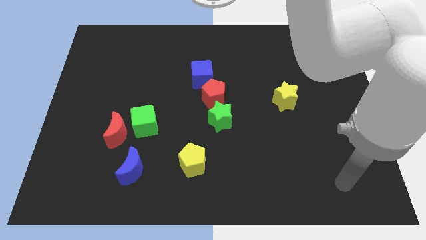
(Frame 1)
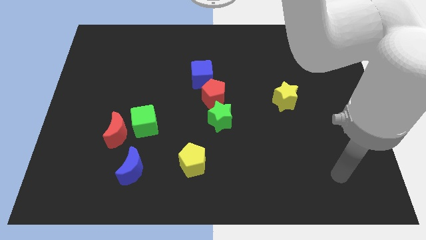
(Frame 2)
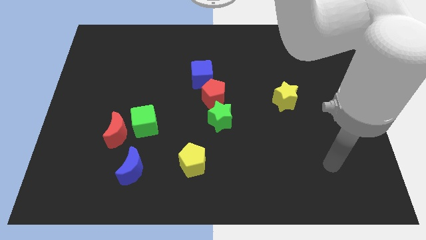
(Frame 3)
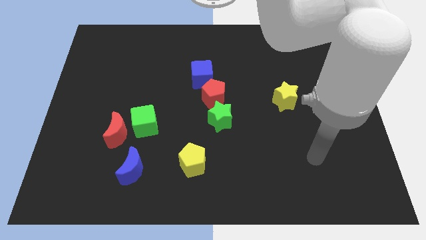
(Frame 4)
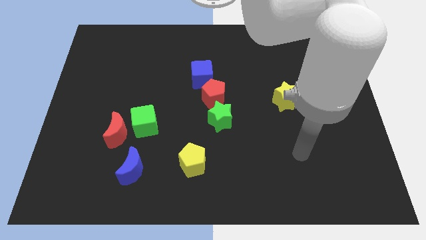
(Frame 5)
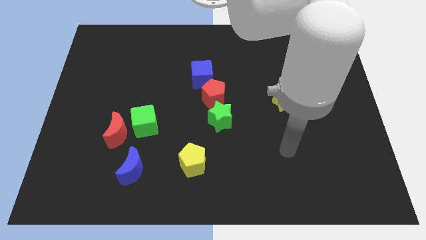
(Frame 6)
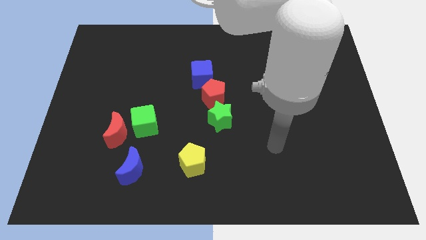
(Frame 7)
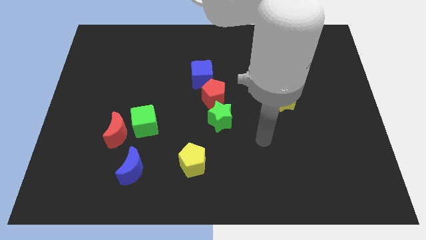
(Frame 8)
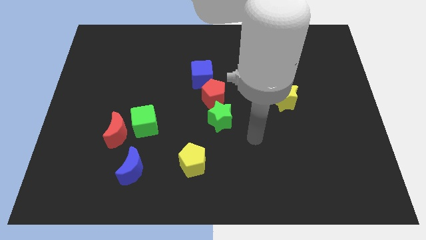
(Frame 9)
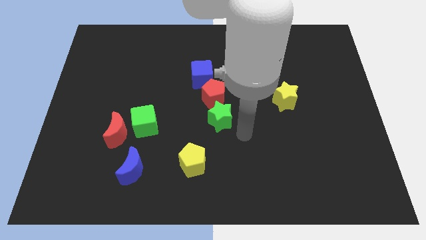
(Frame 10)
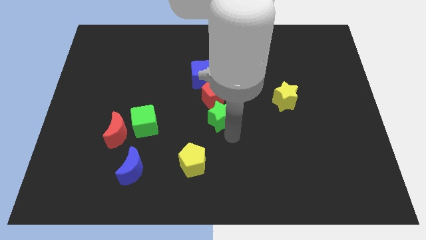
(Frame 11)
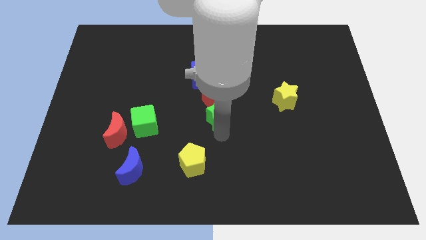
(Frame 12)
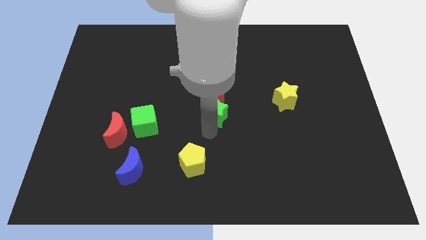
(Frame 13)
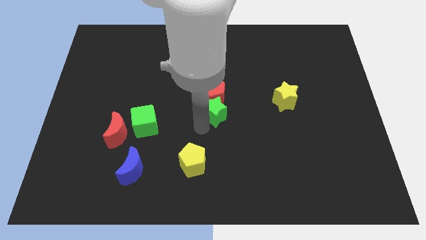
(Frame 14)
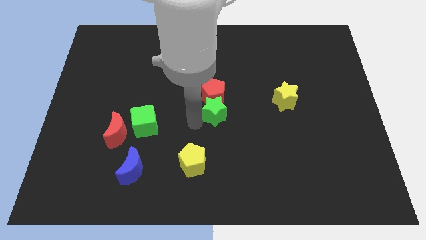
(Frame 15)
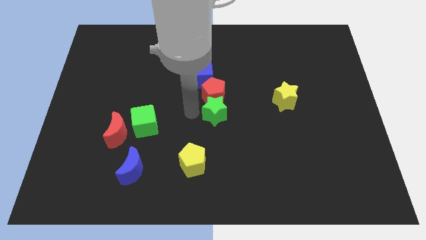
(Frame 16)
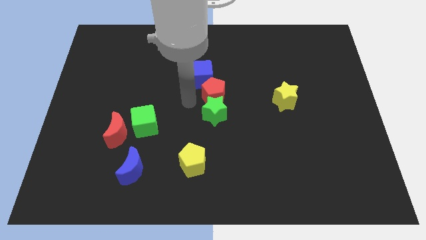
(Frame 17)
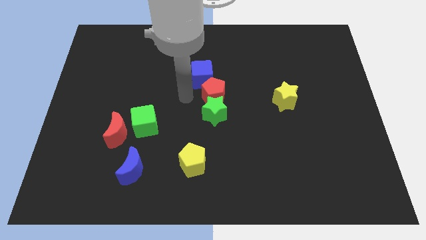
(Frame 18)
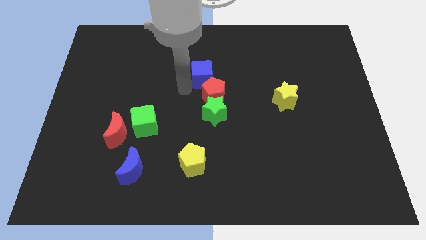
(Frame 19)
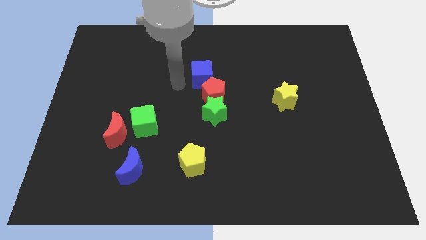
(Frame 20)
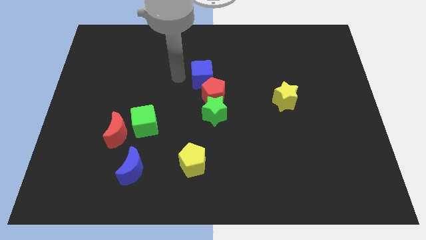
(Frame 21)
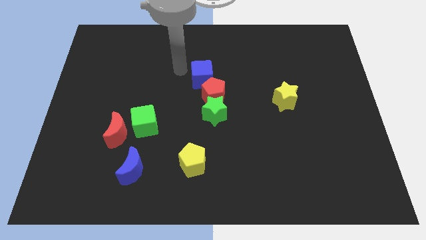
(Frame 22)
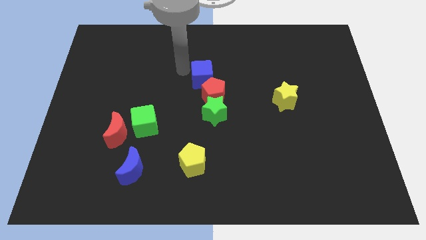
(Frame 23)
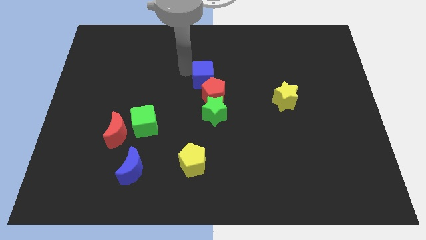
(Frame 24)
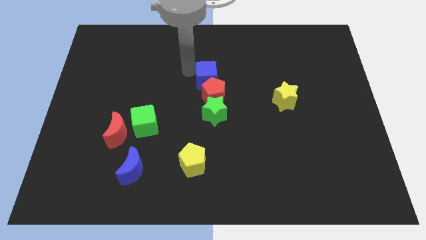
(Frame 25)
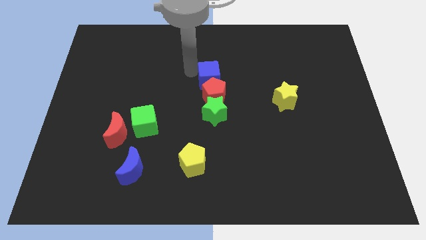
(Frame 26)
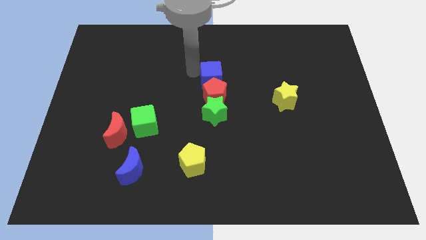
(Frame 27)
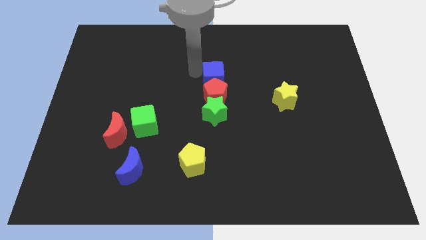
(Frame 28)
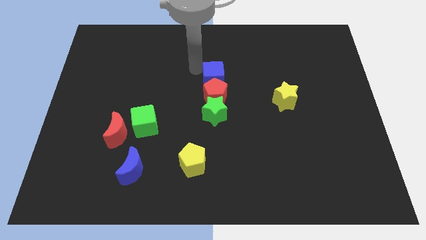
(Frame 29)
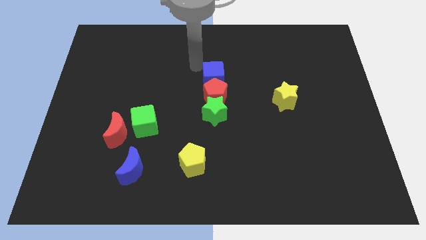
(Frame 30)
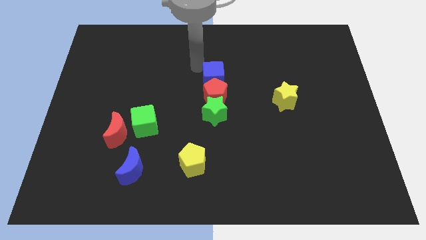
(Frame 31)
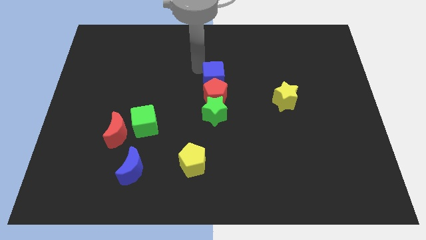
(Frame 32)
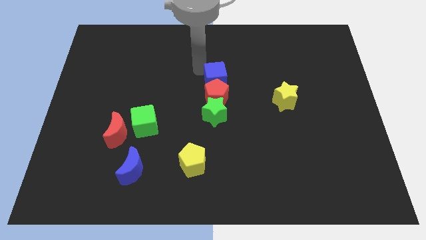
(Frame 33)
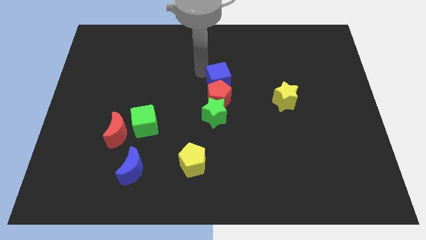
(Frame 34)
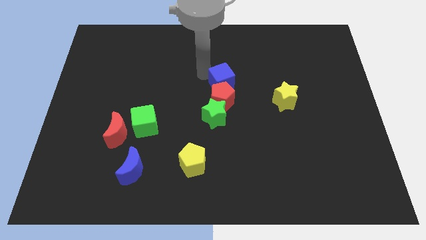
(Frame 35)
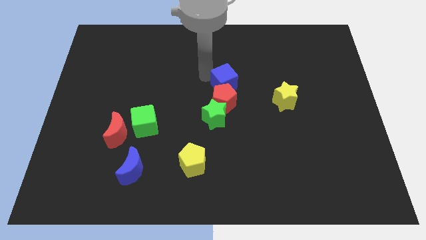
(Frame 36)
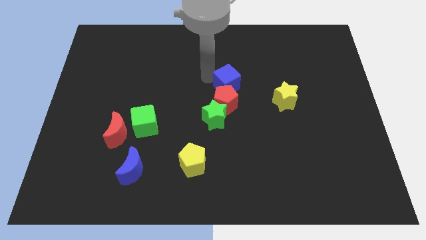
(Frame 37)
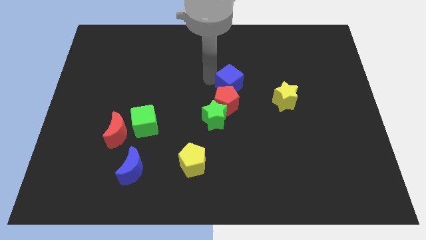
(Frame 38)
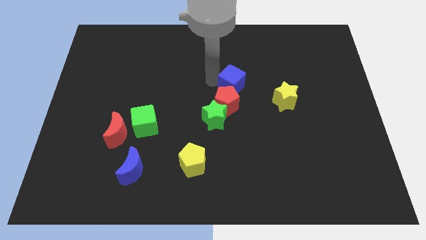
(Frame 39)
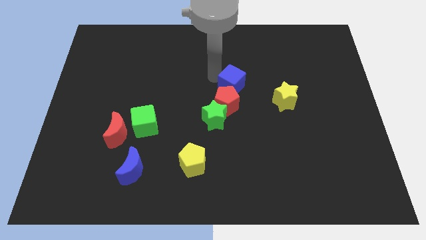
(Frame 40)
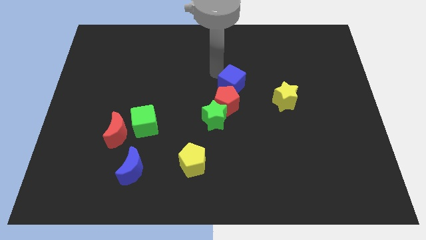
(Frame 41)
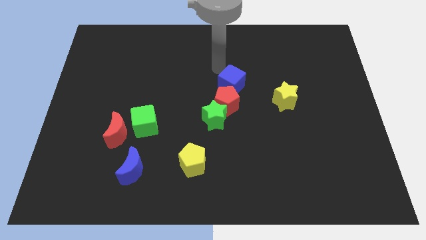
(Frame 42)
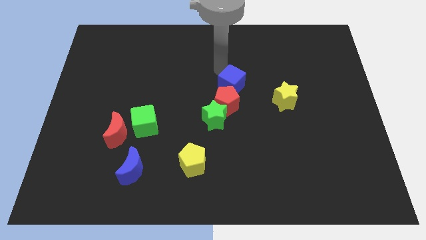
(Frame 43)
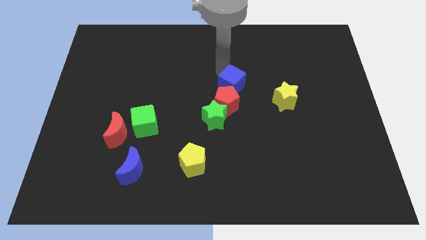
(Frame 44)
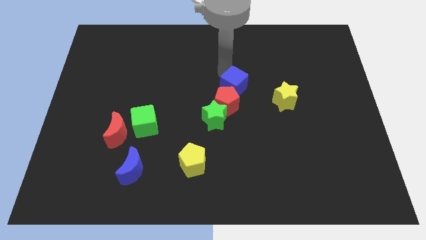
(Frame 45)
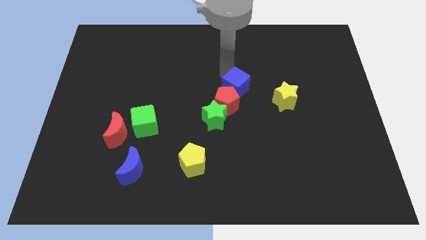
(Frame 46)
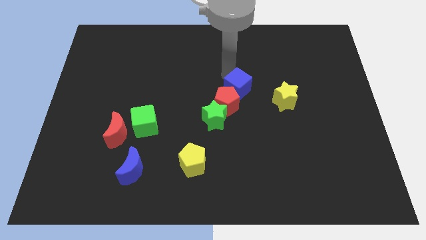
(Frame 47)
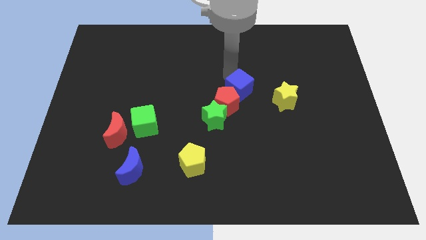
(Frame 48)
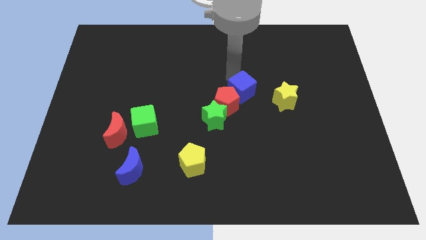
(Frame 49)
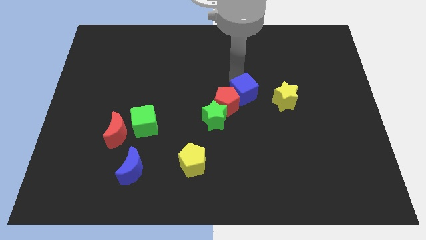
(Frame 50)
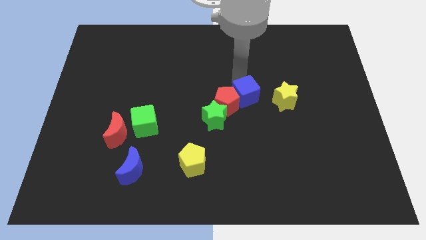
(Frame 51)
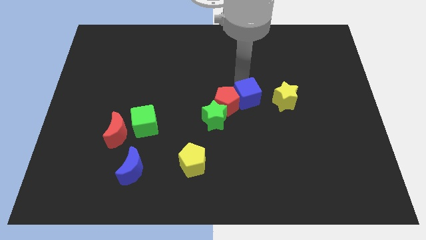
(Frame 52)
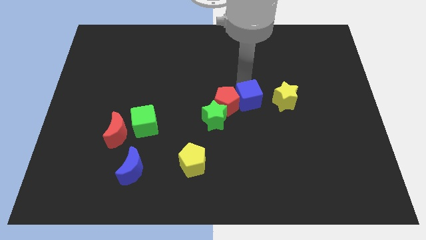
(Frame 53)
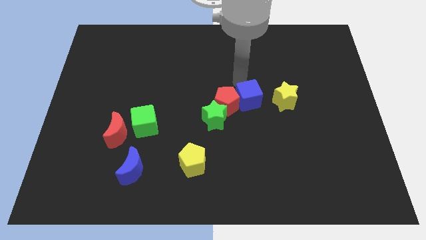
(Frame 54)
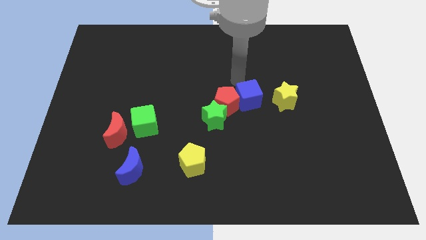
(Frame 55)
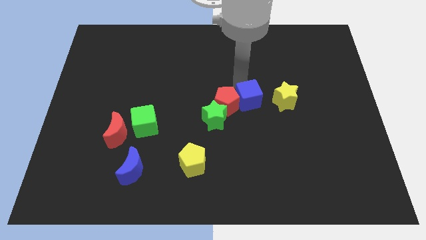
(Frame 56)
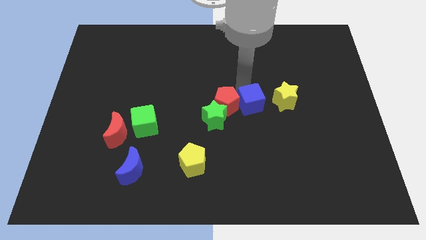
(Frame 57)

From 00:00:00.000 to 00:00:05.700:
slide the blue cube just right of the green star

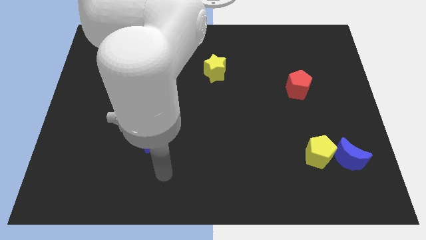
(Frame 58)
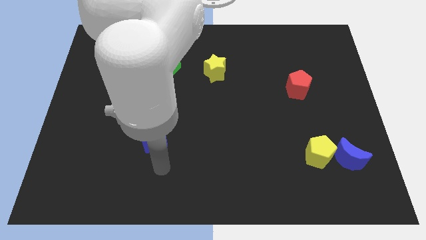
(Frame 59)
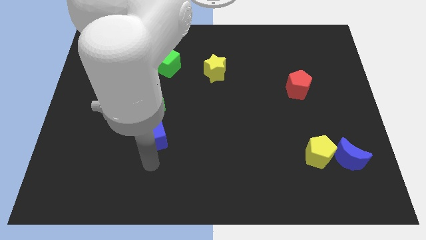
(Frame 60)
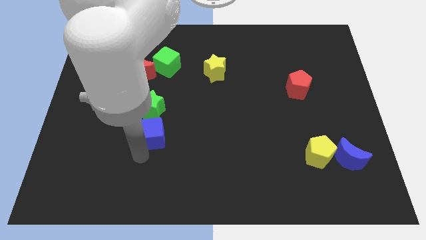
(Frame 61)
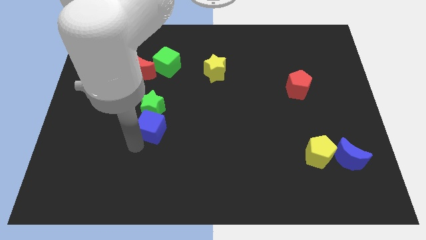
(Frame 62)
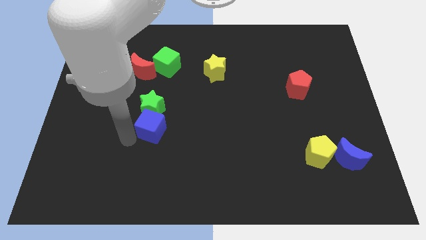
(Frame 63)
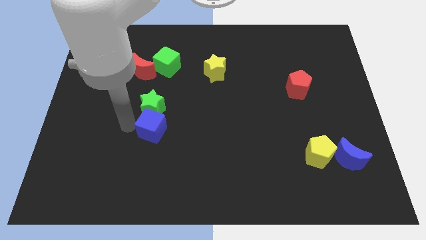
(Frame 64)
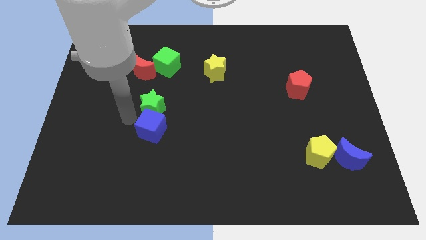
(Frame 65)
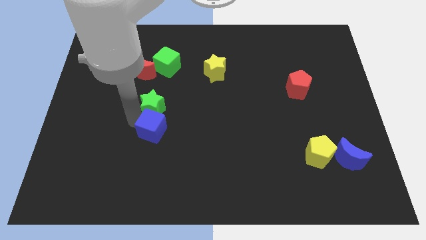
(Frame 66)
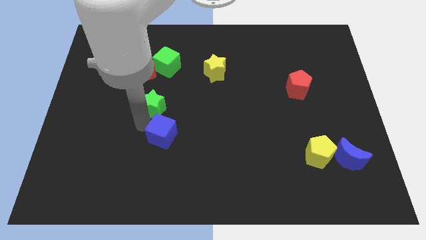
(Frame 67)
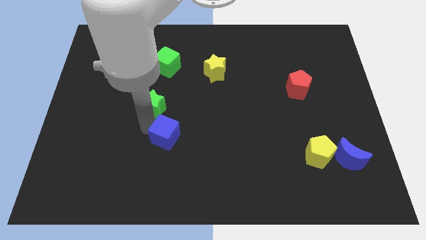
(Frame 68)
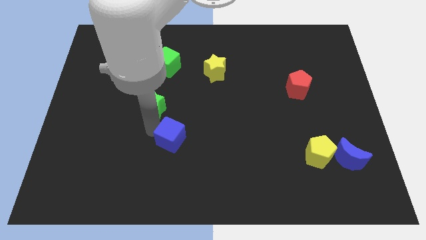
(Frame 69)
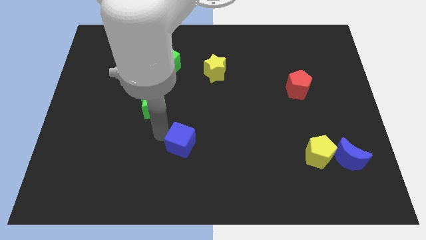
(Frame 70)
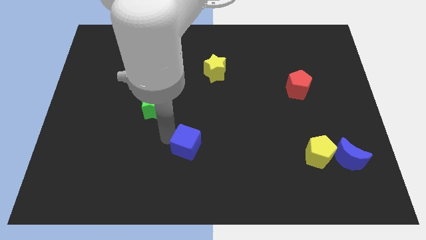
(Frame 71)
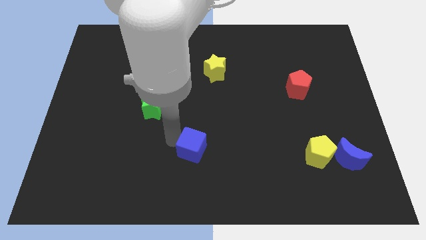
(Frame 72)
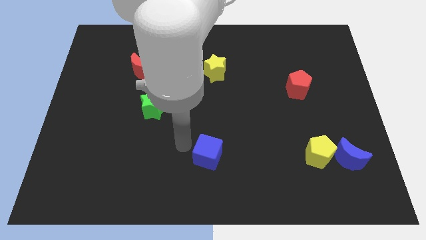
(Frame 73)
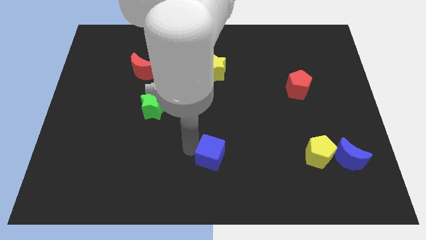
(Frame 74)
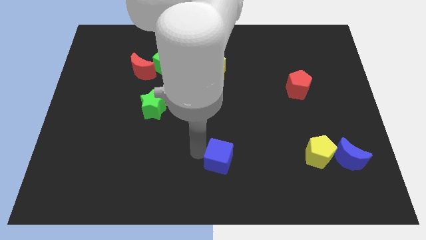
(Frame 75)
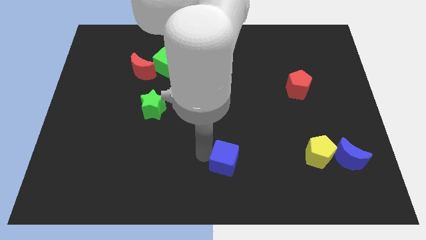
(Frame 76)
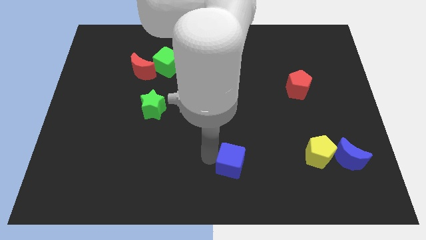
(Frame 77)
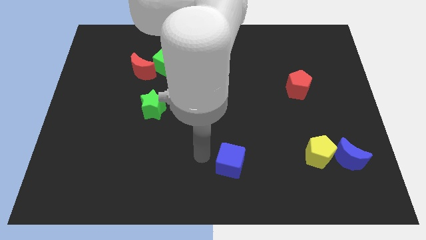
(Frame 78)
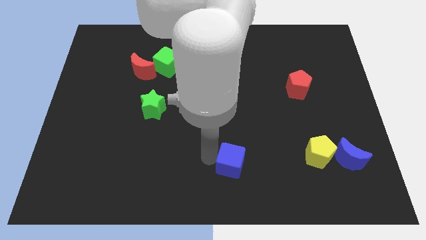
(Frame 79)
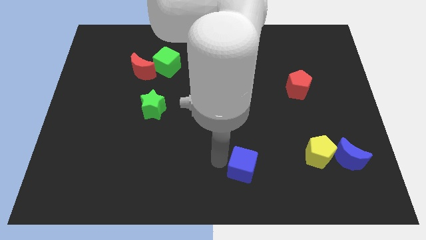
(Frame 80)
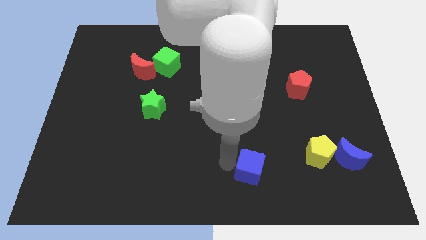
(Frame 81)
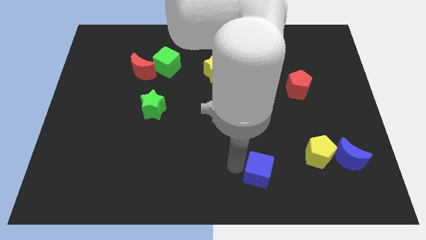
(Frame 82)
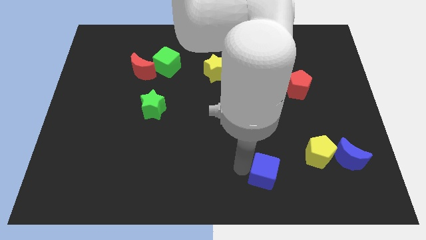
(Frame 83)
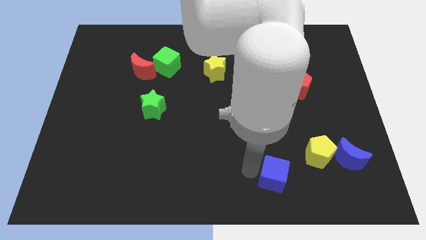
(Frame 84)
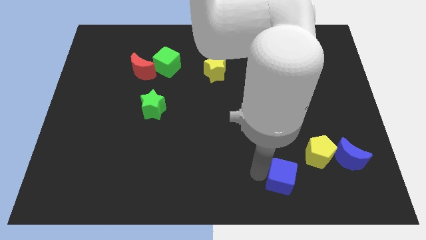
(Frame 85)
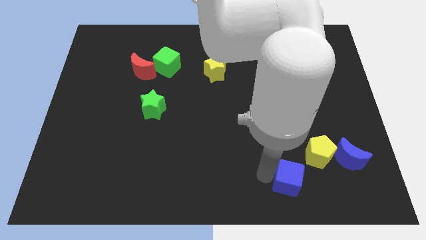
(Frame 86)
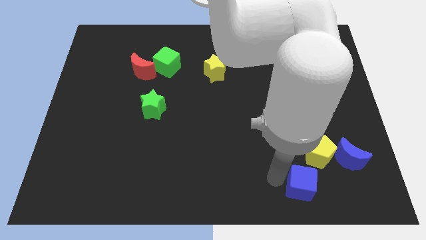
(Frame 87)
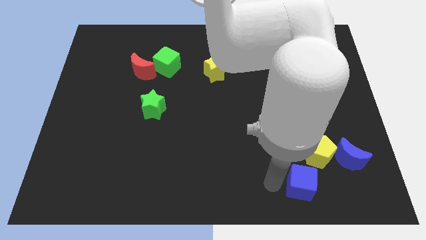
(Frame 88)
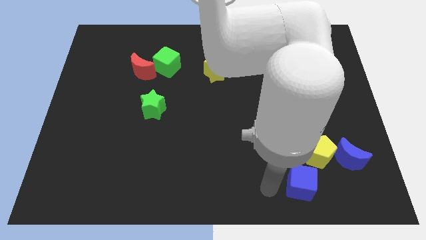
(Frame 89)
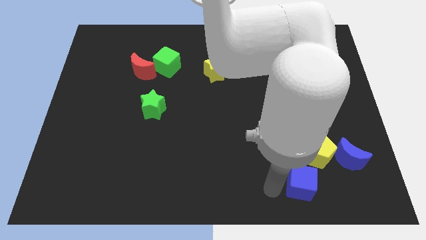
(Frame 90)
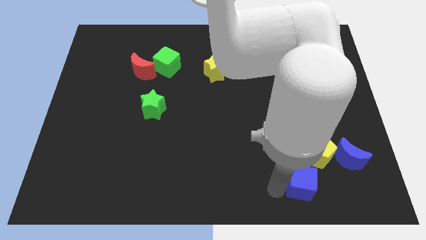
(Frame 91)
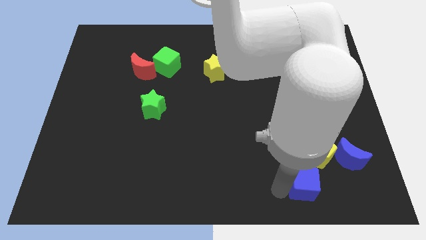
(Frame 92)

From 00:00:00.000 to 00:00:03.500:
put the blue cube diagonally down and to the left of the blue moon
